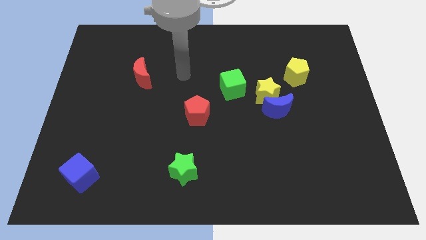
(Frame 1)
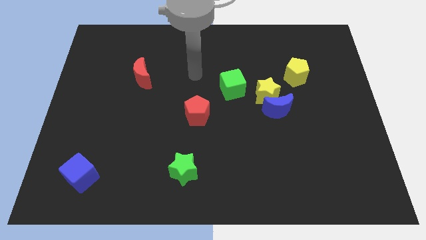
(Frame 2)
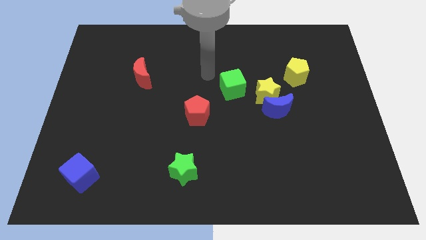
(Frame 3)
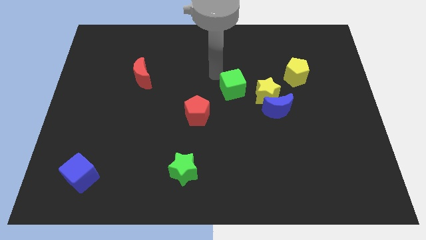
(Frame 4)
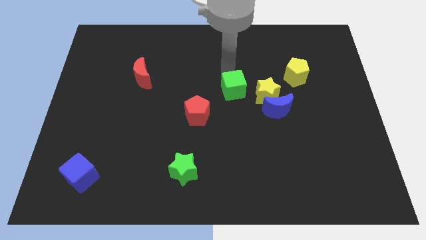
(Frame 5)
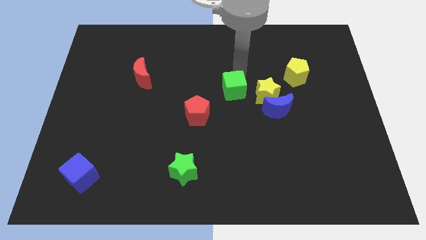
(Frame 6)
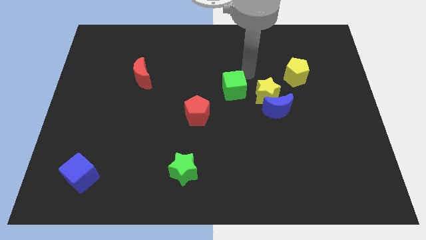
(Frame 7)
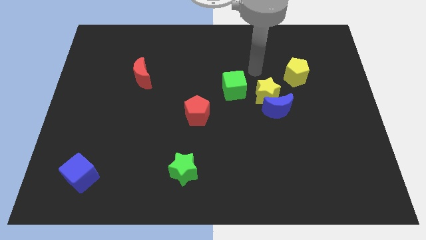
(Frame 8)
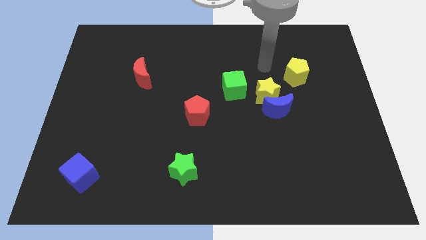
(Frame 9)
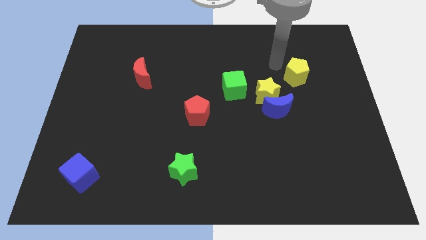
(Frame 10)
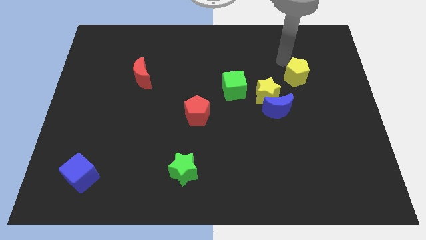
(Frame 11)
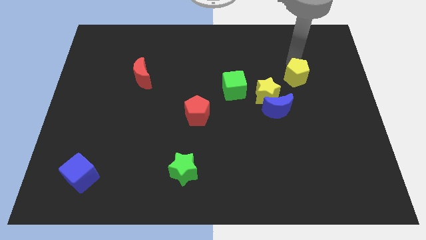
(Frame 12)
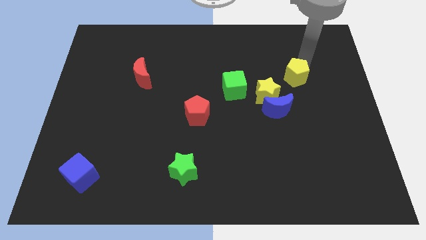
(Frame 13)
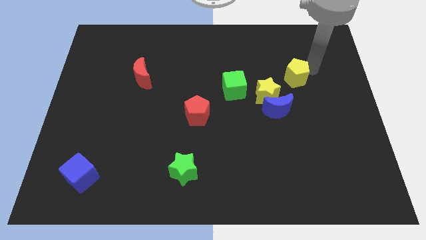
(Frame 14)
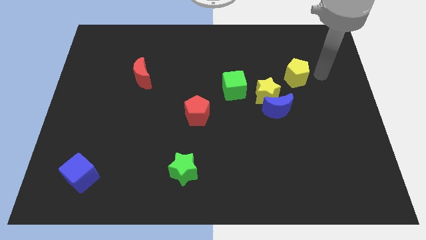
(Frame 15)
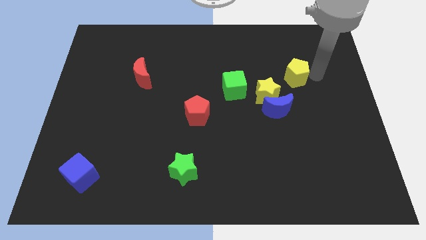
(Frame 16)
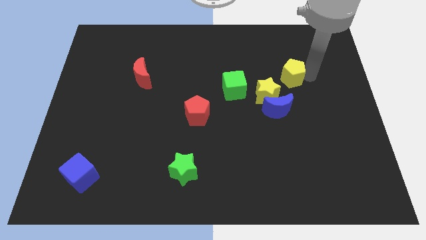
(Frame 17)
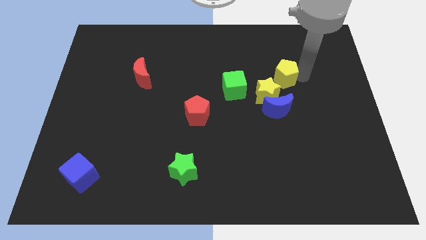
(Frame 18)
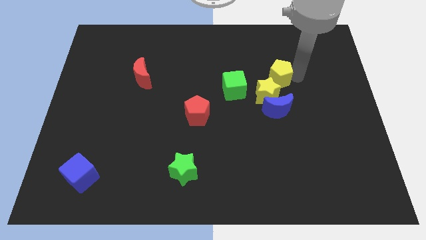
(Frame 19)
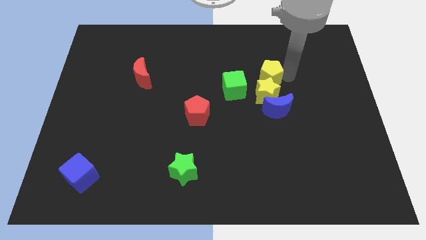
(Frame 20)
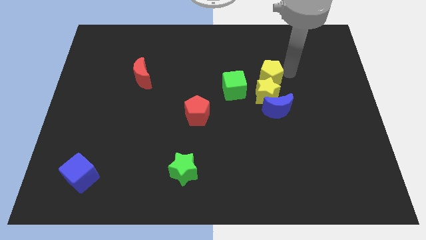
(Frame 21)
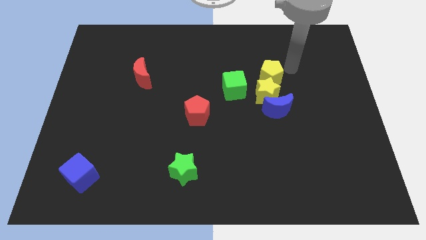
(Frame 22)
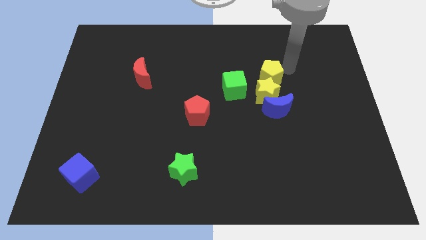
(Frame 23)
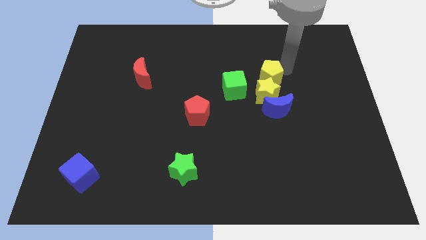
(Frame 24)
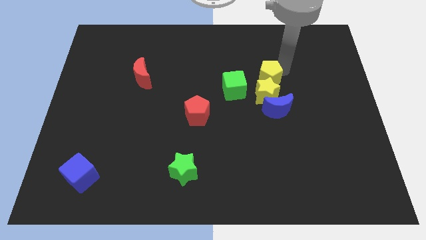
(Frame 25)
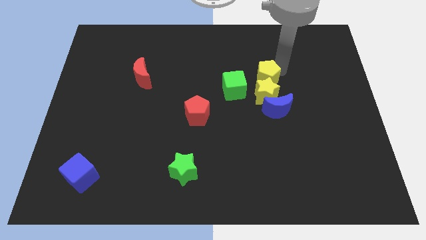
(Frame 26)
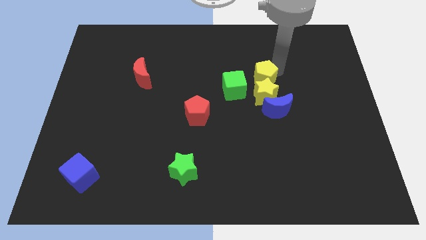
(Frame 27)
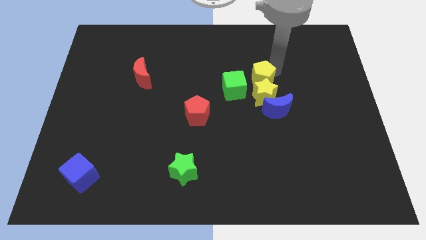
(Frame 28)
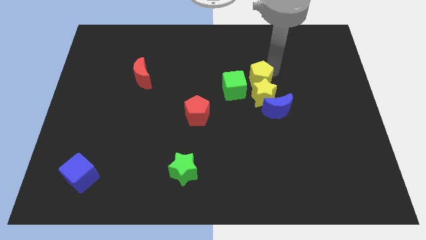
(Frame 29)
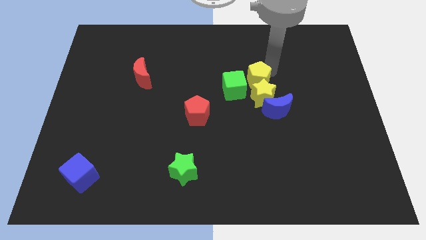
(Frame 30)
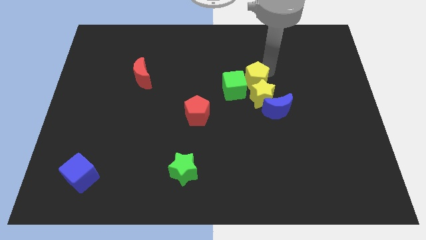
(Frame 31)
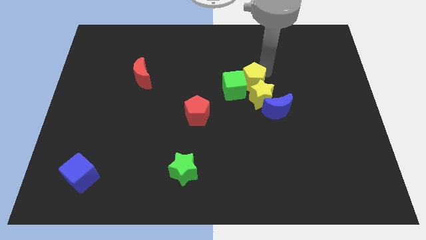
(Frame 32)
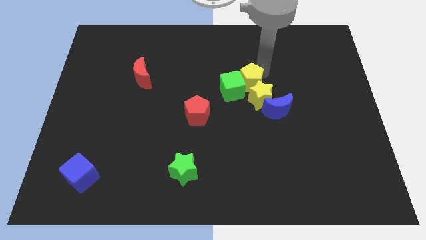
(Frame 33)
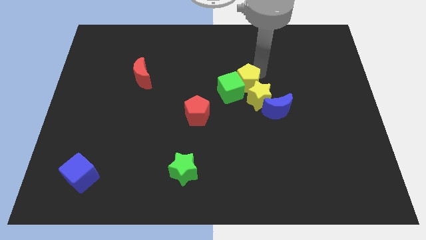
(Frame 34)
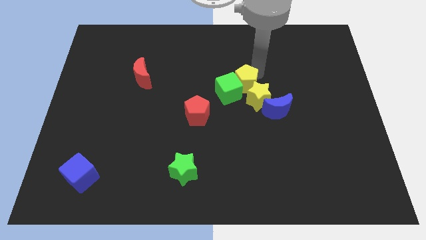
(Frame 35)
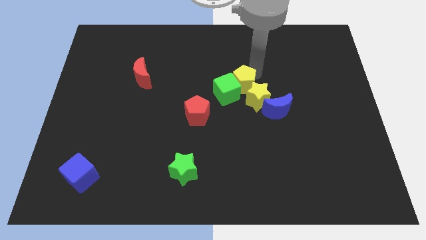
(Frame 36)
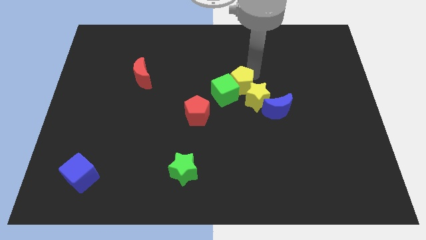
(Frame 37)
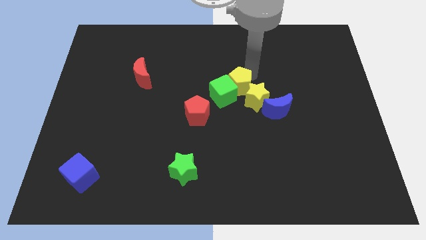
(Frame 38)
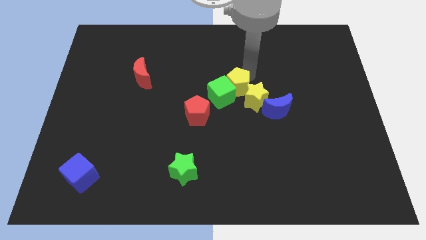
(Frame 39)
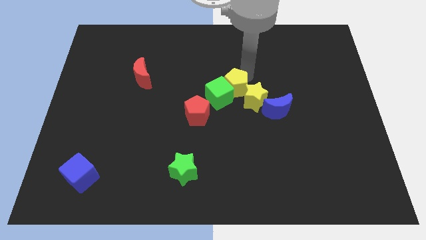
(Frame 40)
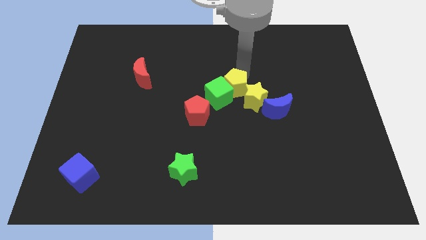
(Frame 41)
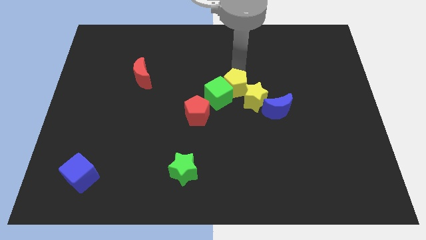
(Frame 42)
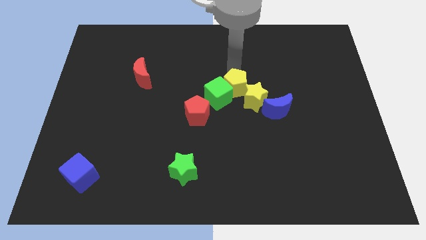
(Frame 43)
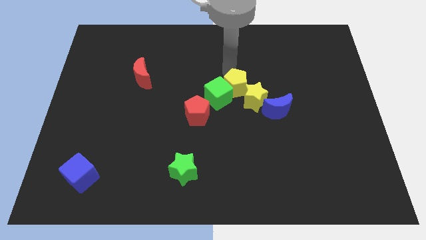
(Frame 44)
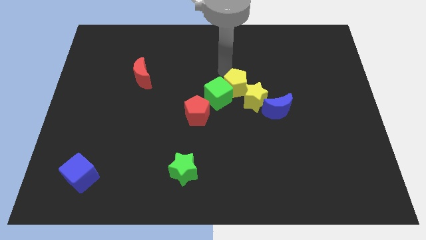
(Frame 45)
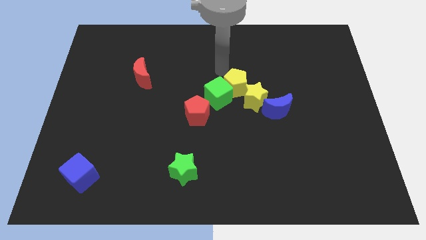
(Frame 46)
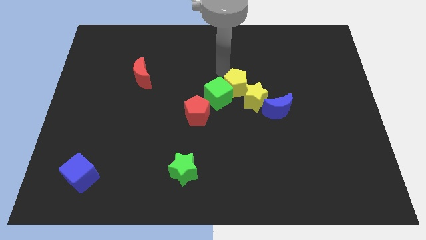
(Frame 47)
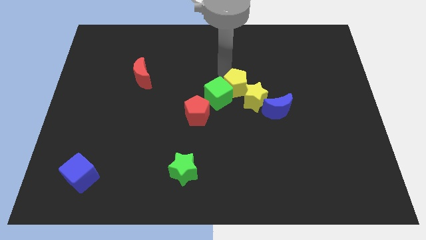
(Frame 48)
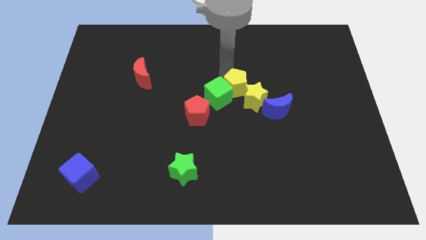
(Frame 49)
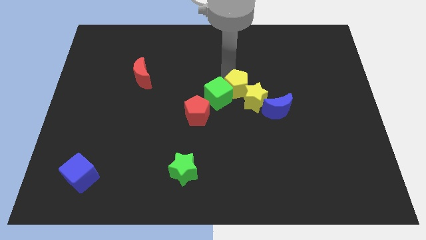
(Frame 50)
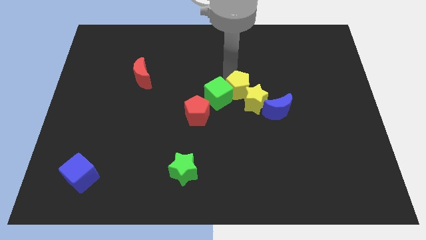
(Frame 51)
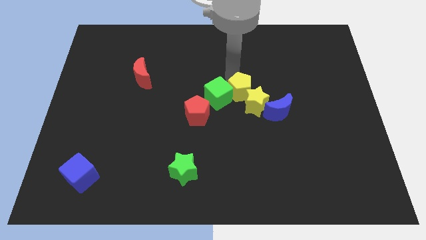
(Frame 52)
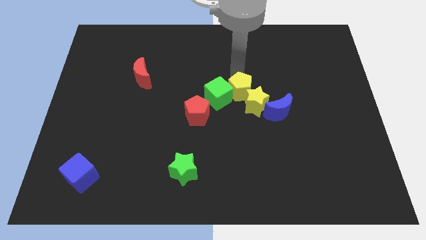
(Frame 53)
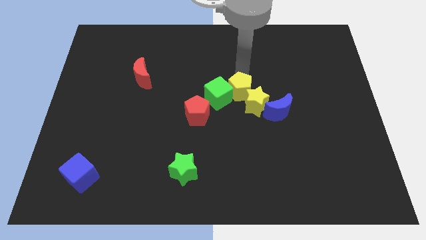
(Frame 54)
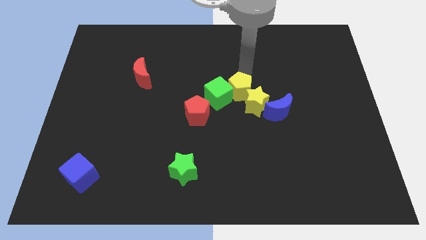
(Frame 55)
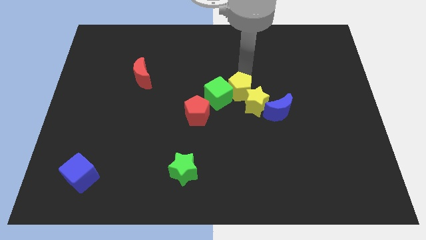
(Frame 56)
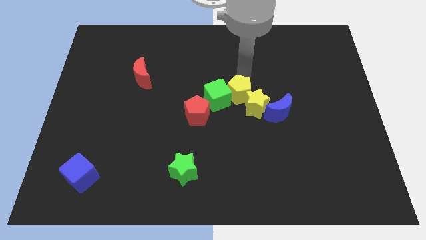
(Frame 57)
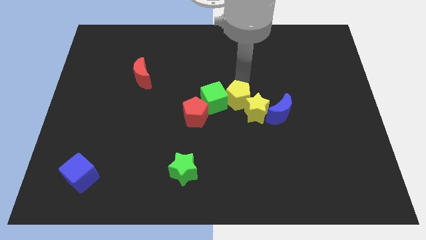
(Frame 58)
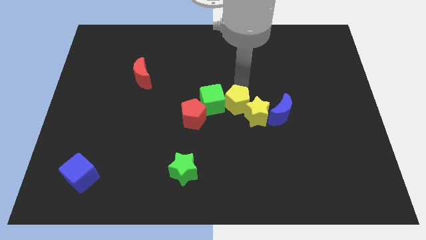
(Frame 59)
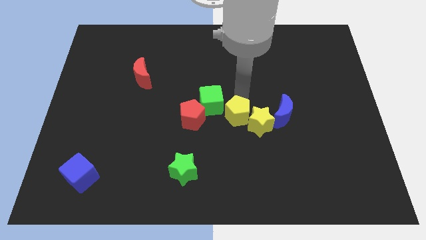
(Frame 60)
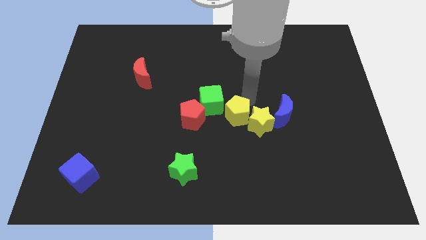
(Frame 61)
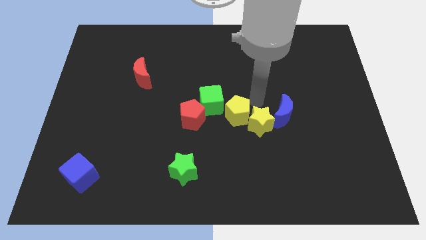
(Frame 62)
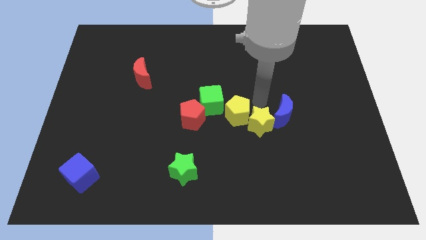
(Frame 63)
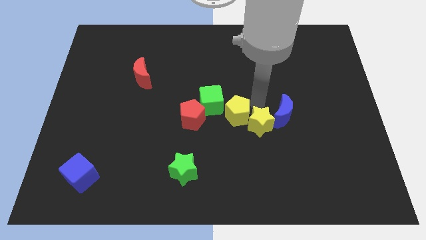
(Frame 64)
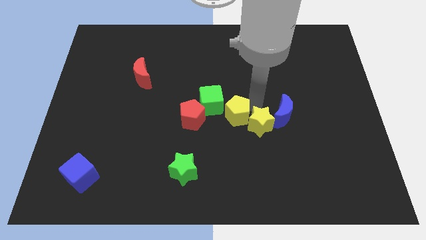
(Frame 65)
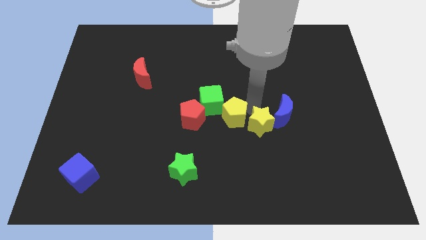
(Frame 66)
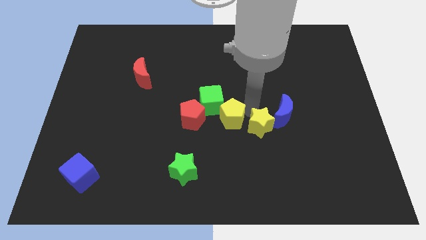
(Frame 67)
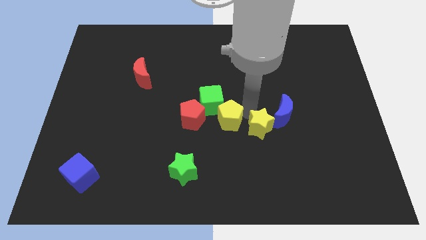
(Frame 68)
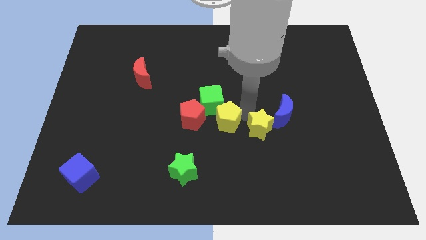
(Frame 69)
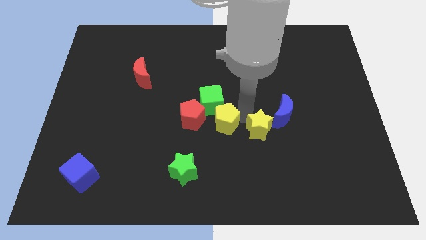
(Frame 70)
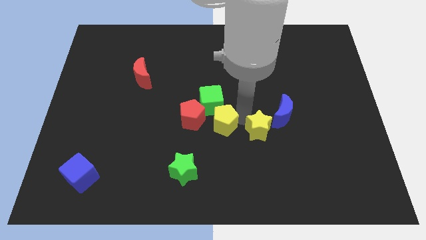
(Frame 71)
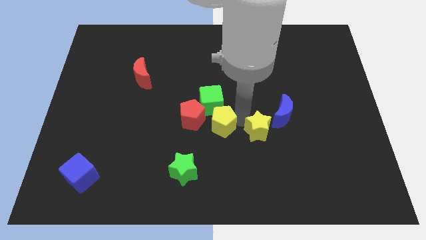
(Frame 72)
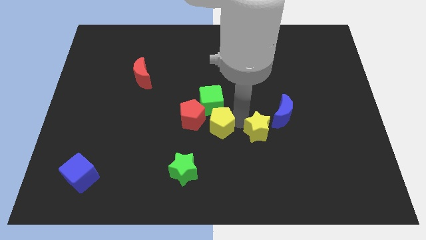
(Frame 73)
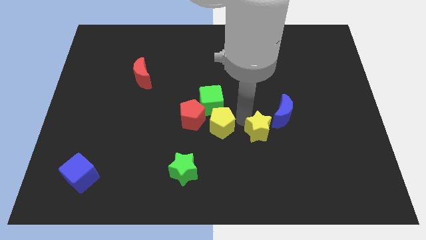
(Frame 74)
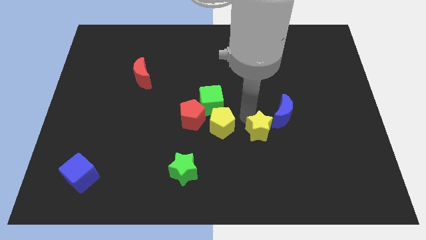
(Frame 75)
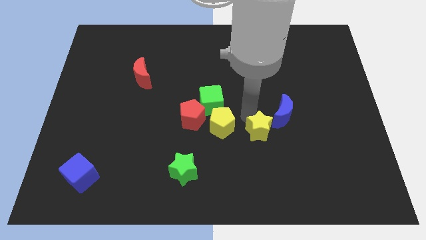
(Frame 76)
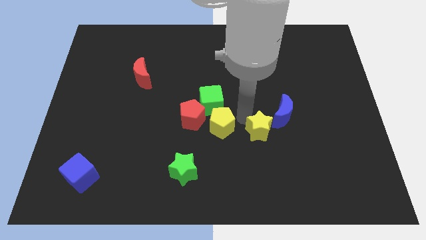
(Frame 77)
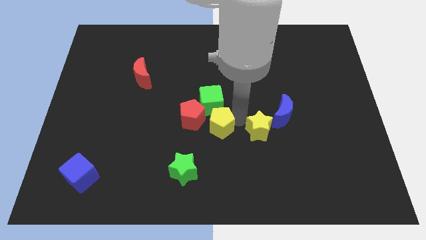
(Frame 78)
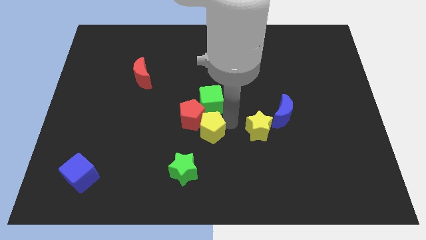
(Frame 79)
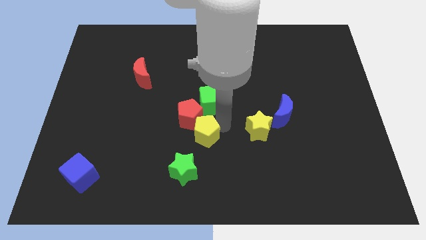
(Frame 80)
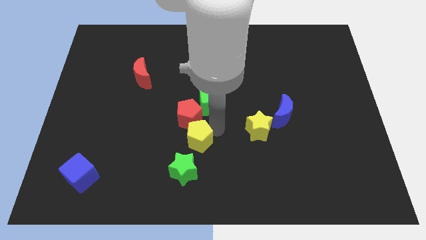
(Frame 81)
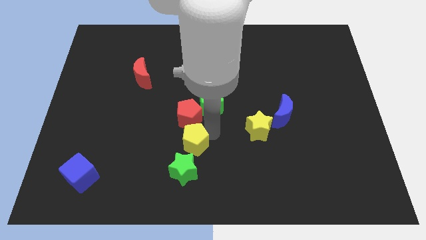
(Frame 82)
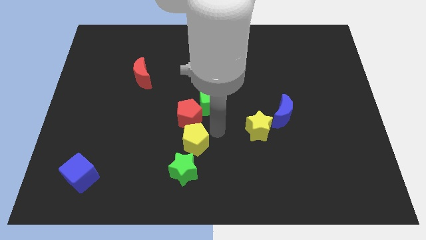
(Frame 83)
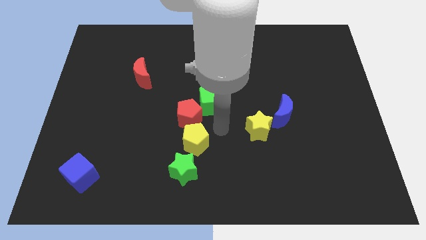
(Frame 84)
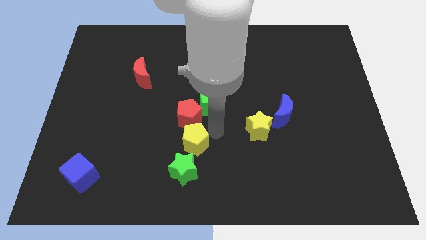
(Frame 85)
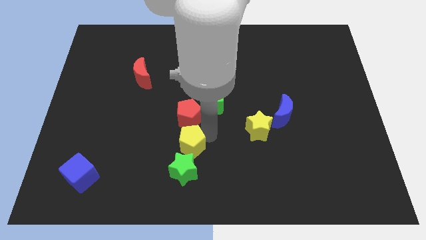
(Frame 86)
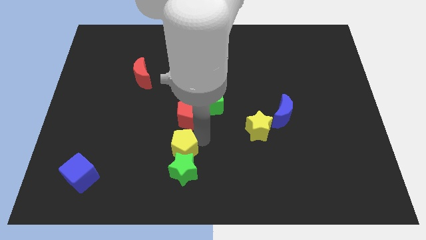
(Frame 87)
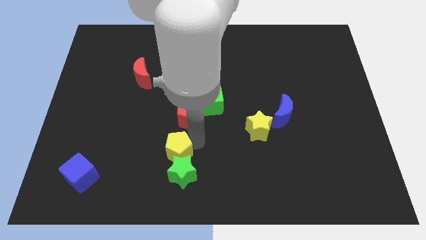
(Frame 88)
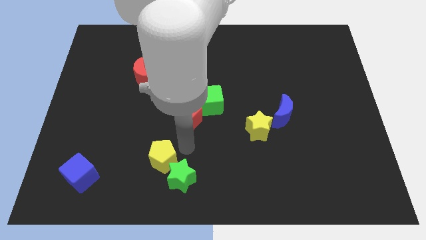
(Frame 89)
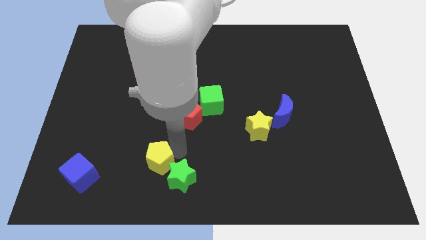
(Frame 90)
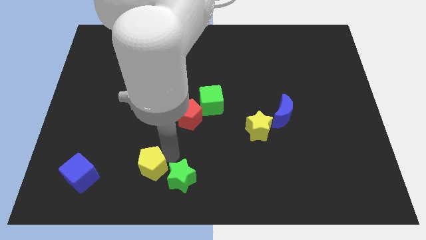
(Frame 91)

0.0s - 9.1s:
move the yellow pentagon right of the blue cube
